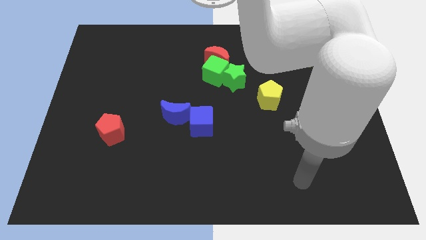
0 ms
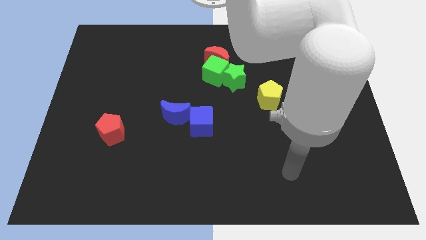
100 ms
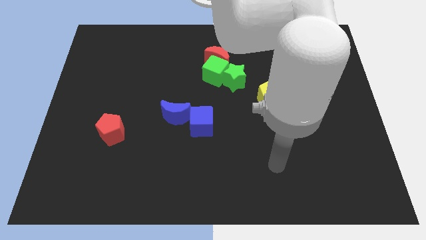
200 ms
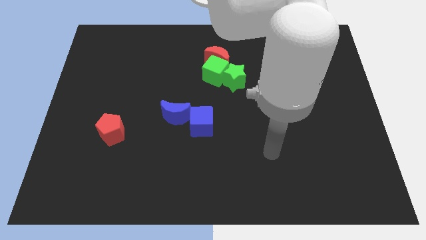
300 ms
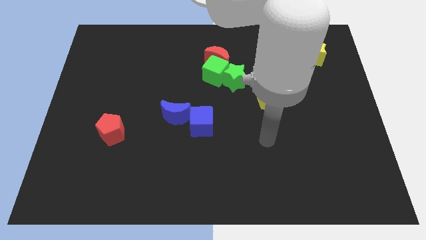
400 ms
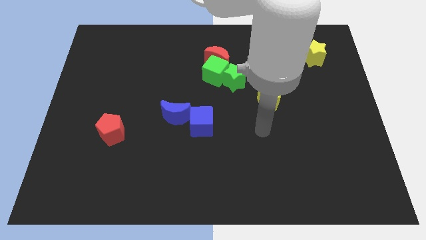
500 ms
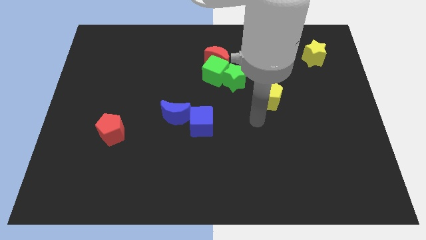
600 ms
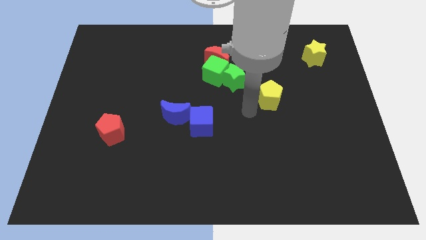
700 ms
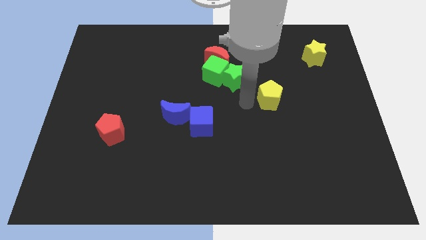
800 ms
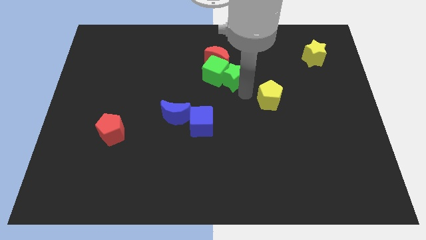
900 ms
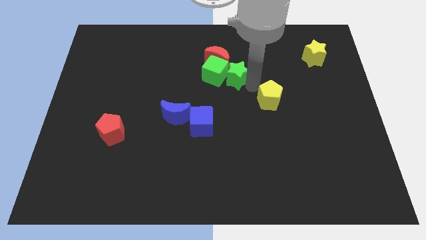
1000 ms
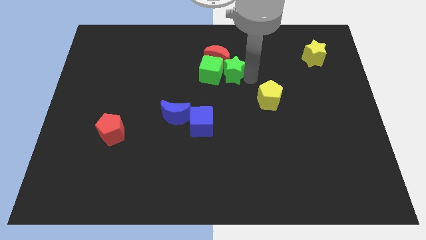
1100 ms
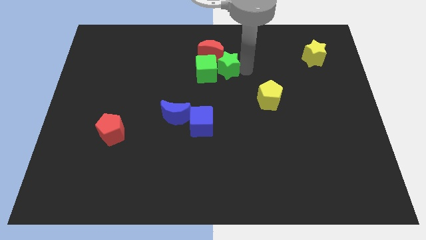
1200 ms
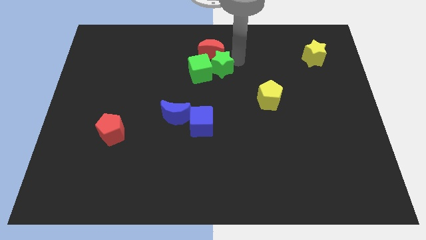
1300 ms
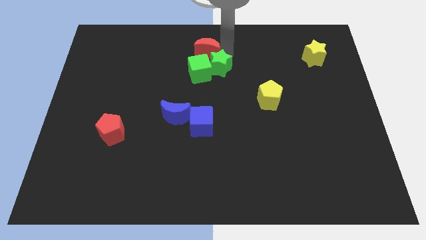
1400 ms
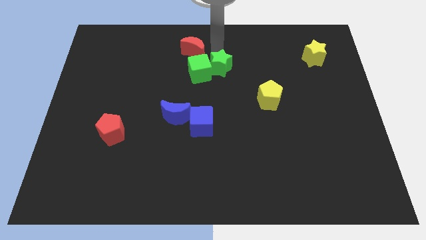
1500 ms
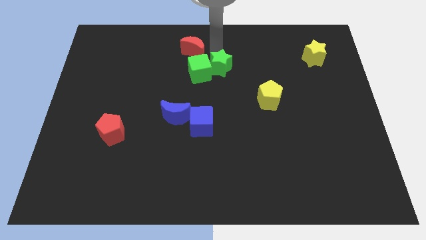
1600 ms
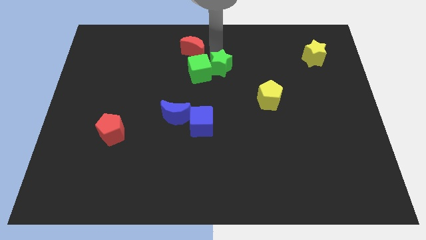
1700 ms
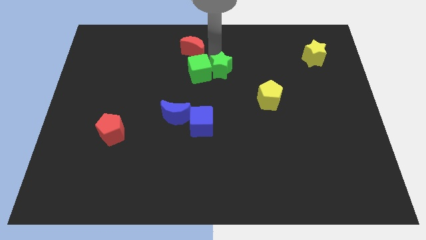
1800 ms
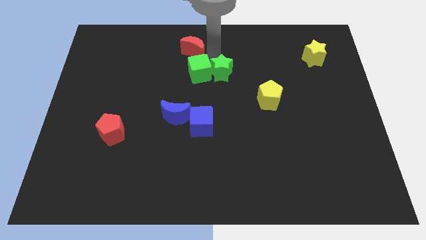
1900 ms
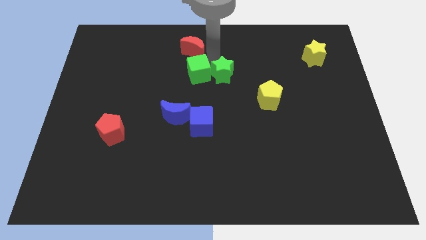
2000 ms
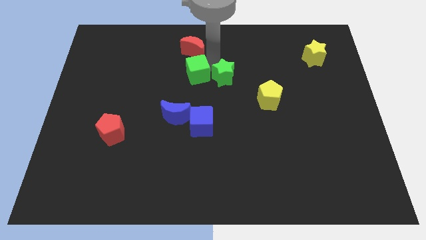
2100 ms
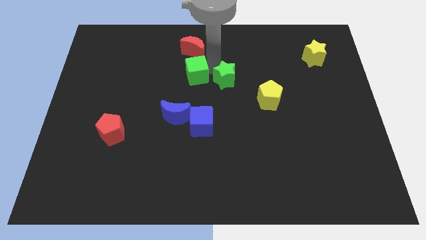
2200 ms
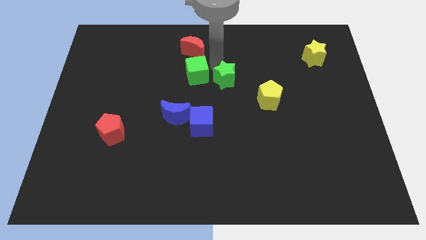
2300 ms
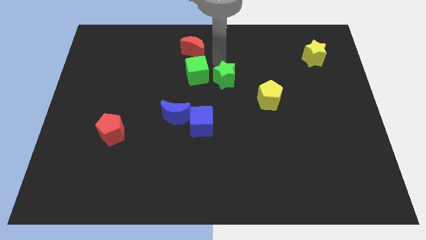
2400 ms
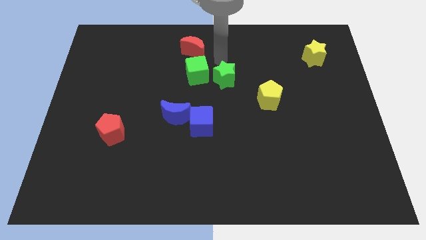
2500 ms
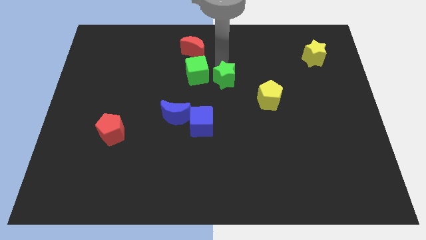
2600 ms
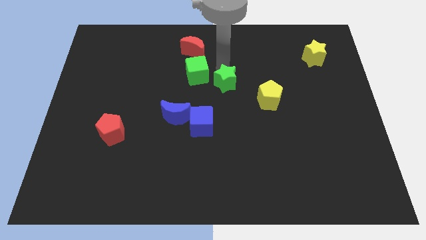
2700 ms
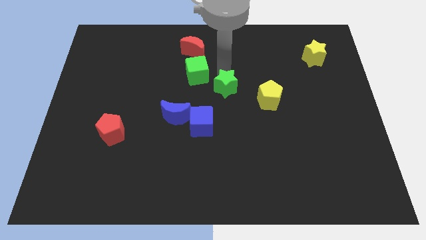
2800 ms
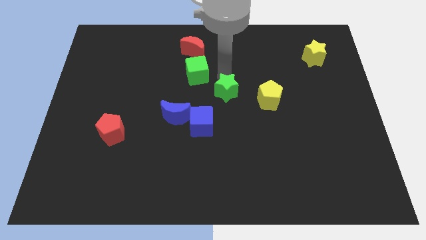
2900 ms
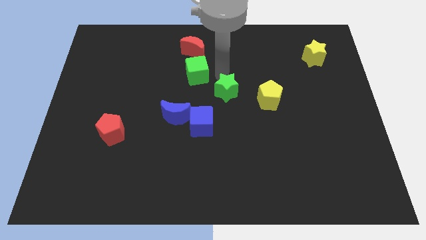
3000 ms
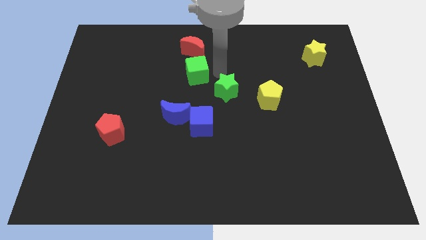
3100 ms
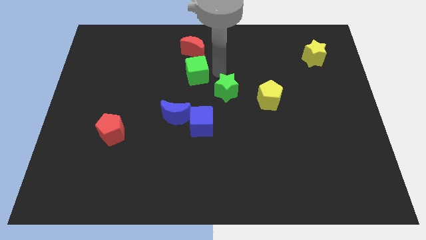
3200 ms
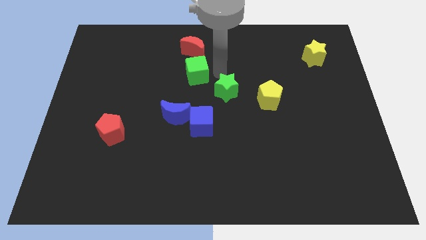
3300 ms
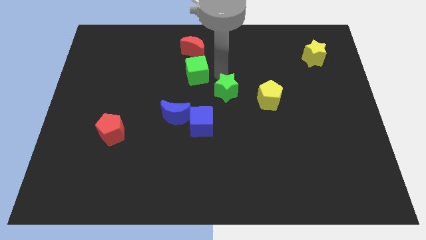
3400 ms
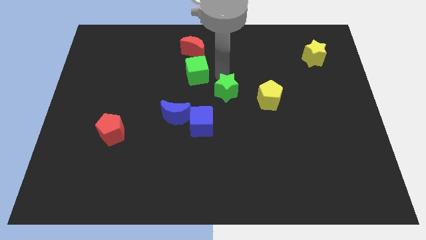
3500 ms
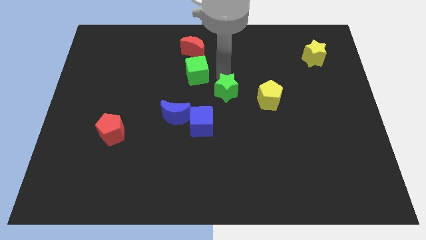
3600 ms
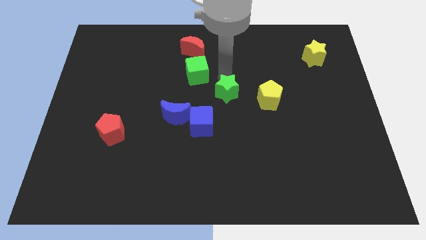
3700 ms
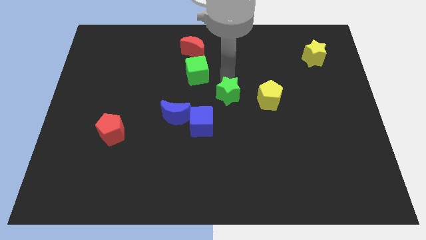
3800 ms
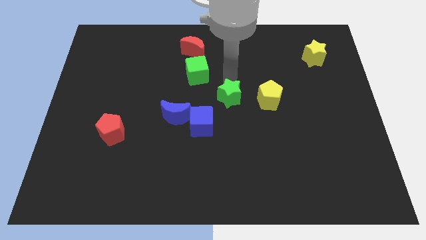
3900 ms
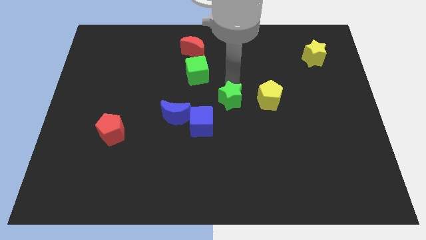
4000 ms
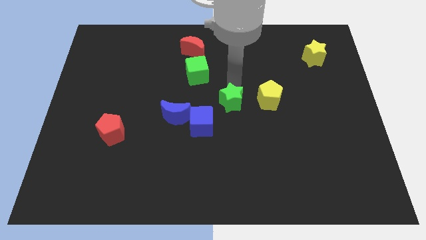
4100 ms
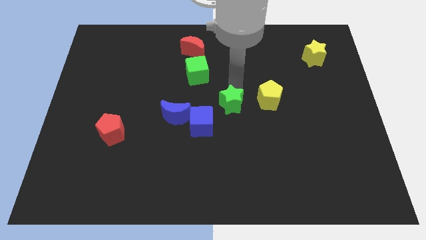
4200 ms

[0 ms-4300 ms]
slightly move the green star down

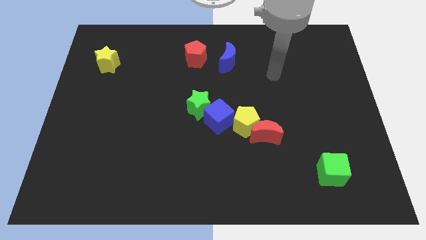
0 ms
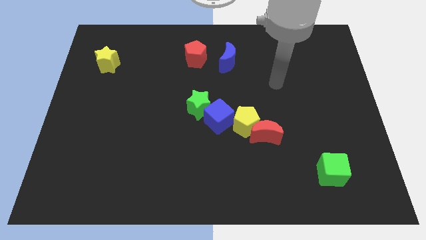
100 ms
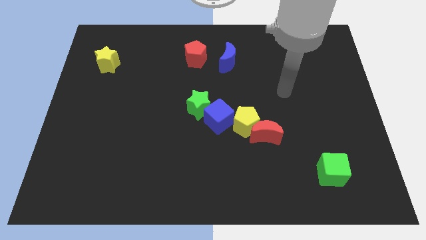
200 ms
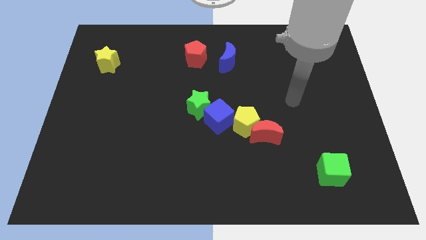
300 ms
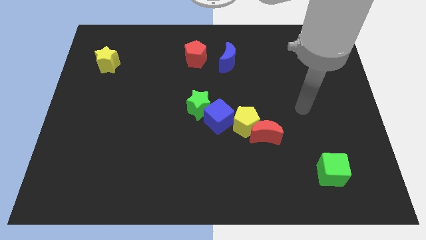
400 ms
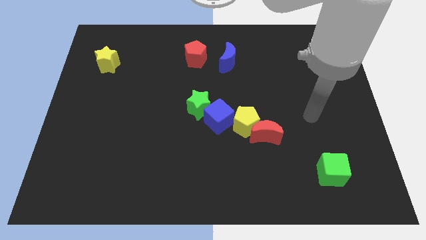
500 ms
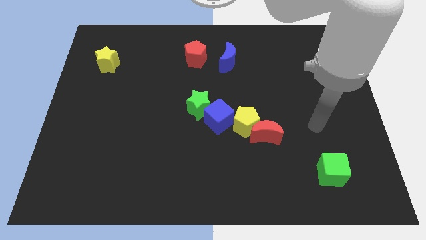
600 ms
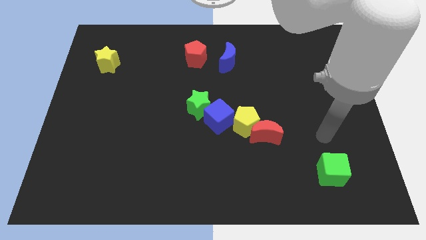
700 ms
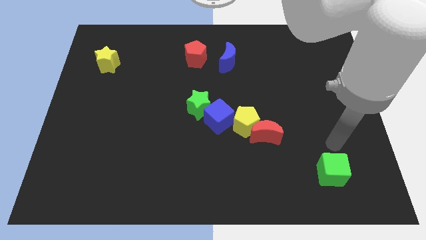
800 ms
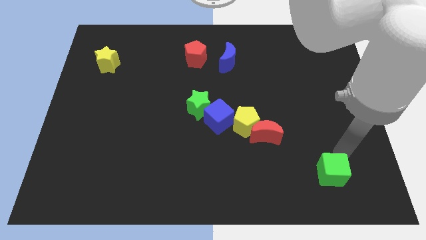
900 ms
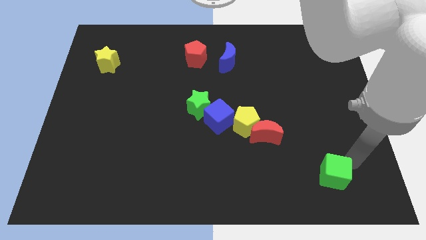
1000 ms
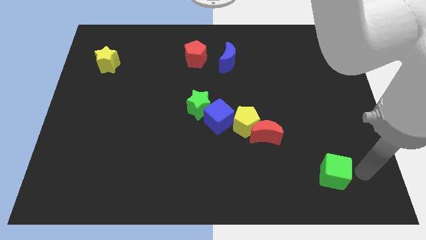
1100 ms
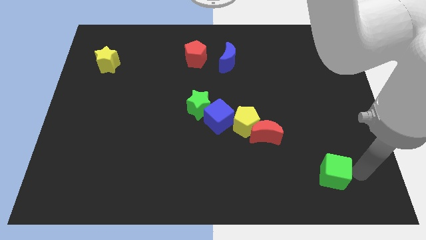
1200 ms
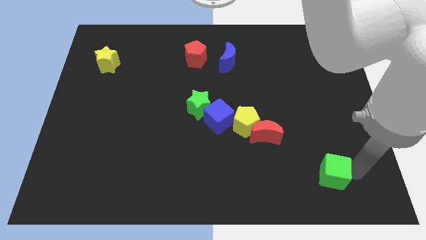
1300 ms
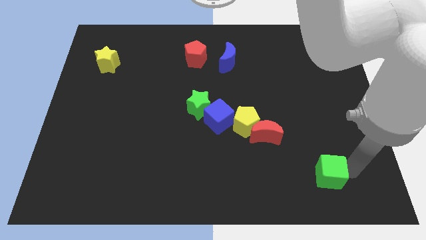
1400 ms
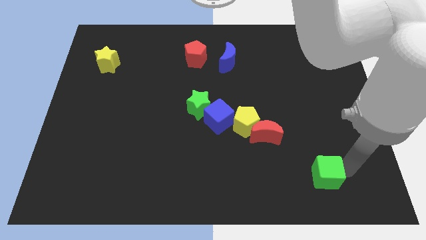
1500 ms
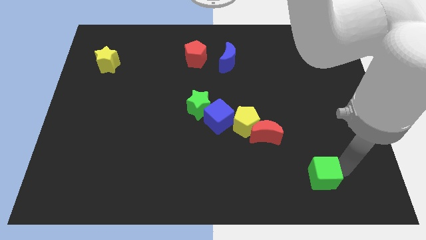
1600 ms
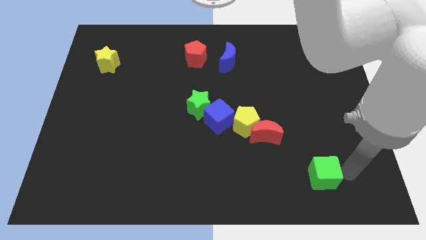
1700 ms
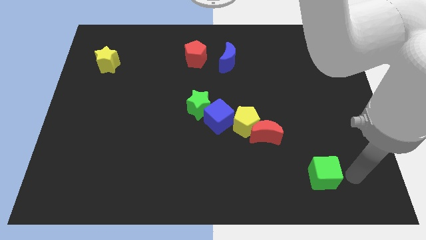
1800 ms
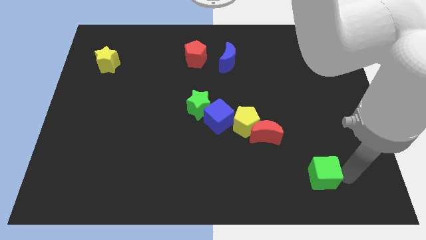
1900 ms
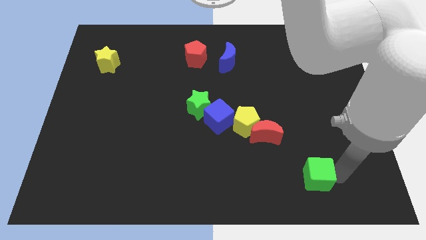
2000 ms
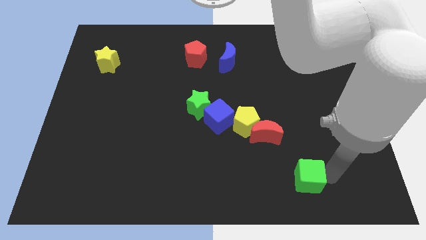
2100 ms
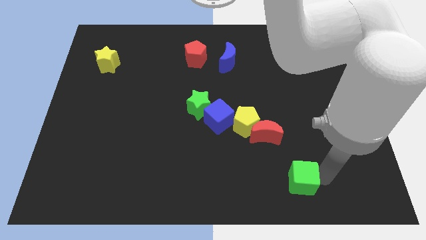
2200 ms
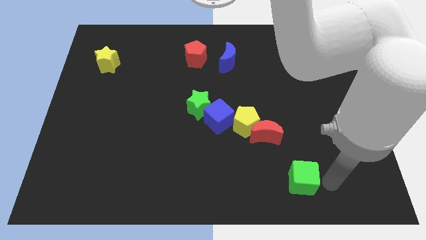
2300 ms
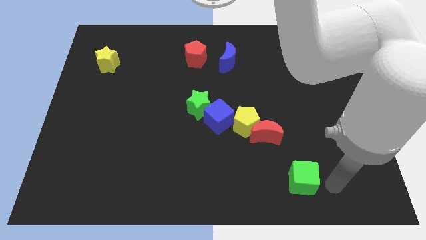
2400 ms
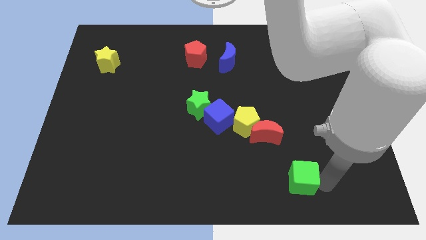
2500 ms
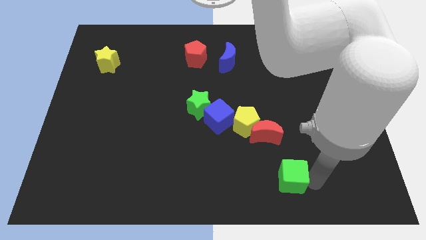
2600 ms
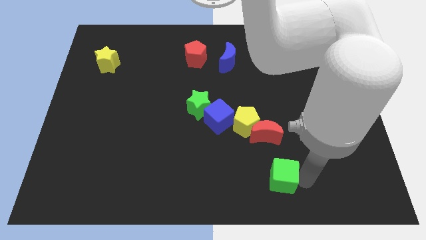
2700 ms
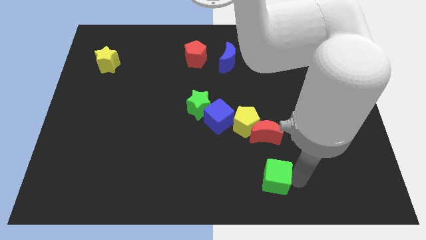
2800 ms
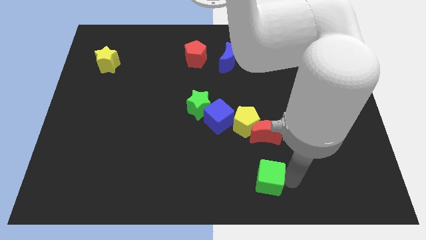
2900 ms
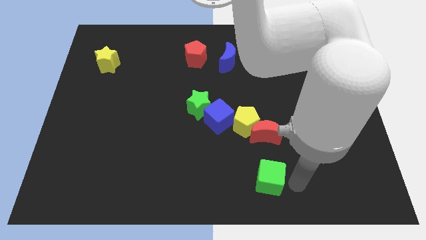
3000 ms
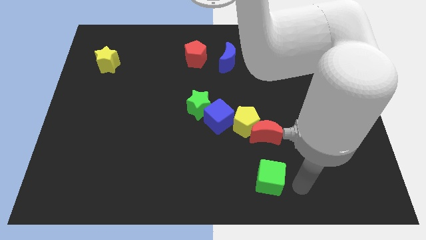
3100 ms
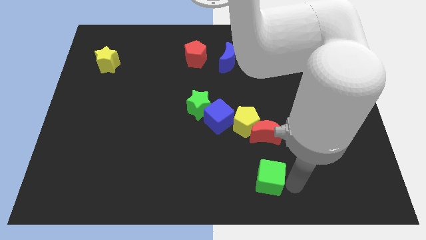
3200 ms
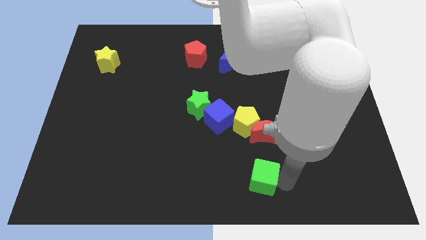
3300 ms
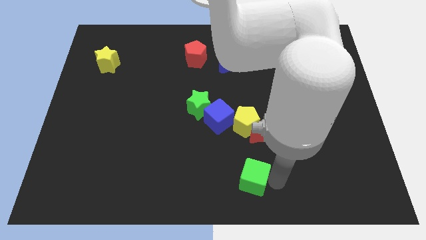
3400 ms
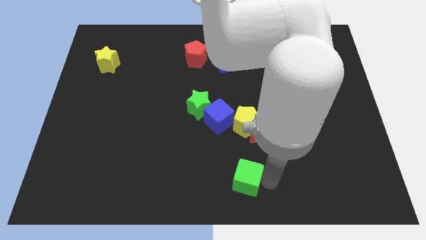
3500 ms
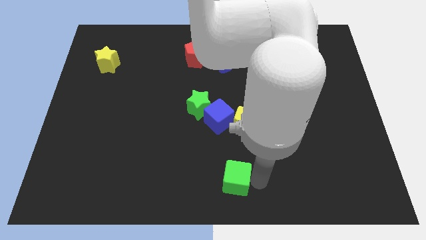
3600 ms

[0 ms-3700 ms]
slide the green cube left
